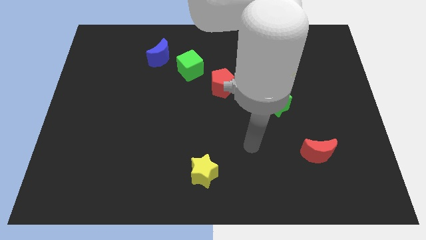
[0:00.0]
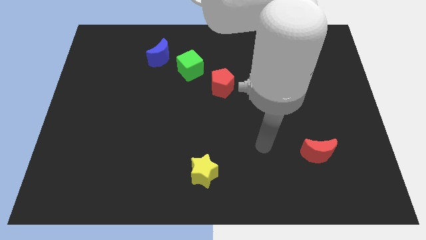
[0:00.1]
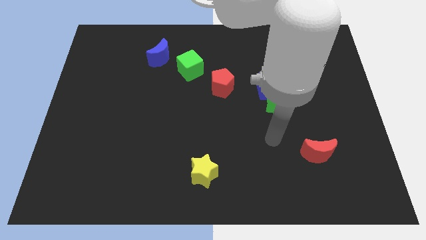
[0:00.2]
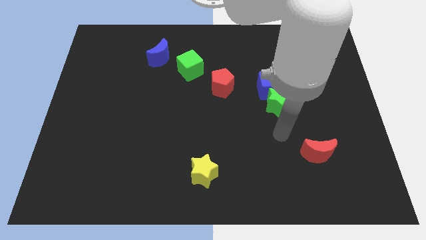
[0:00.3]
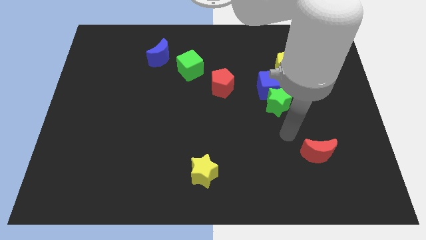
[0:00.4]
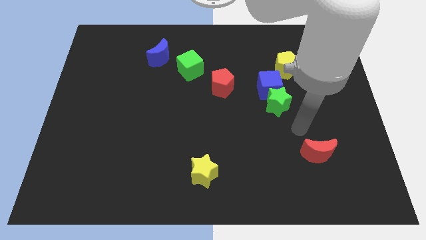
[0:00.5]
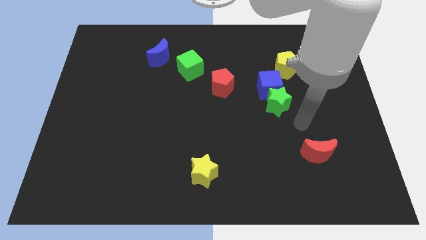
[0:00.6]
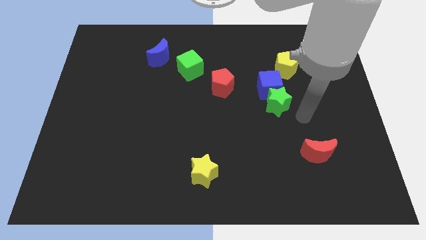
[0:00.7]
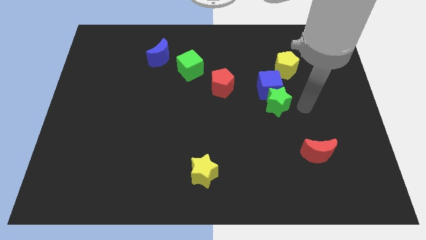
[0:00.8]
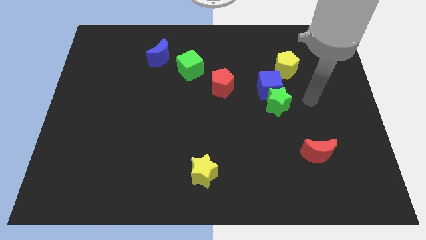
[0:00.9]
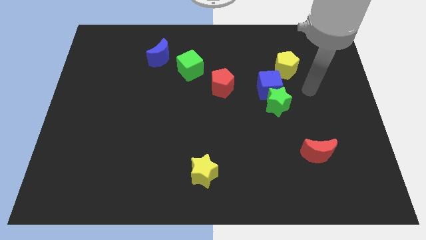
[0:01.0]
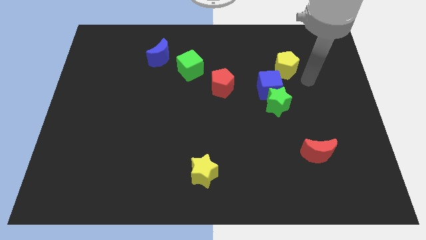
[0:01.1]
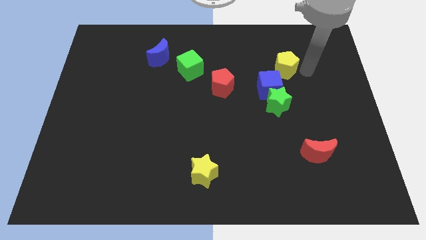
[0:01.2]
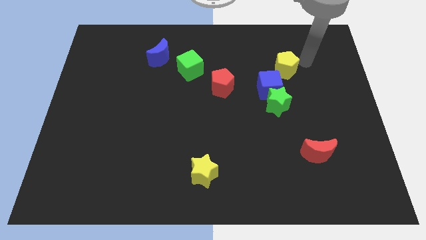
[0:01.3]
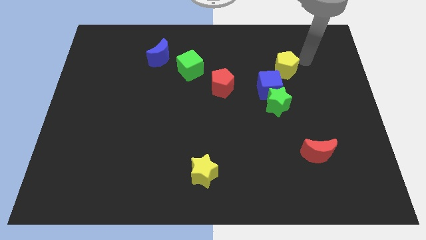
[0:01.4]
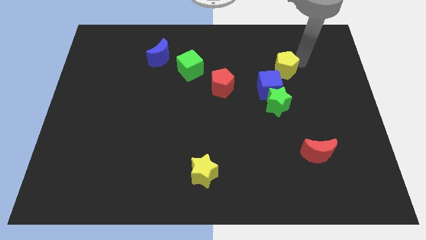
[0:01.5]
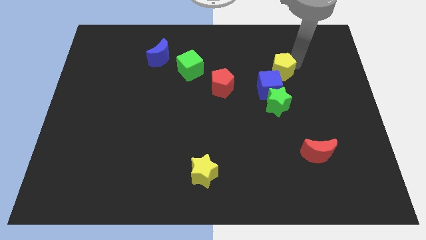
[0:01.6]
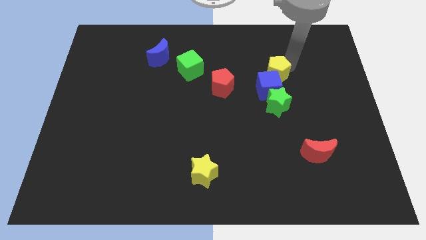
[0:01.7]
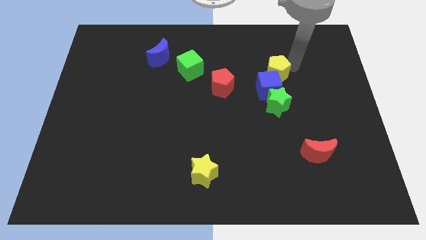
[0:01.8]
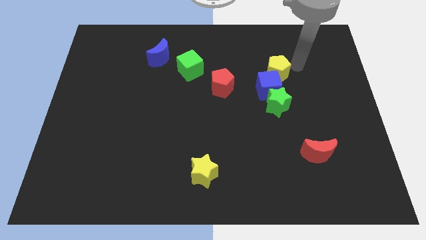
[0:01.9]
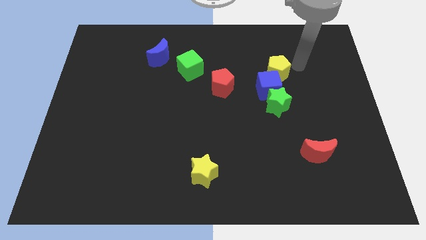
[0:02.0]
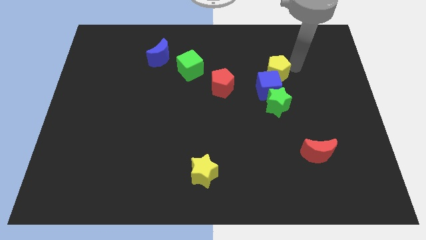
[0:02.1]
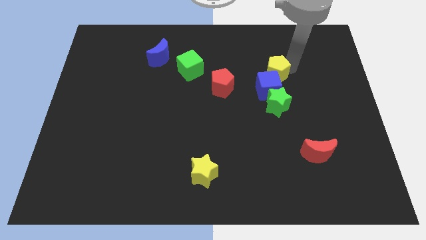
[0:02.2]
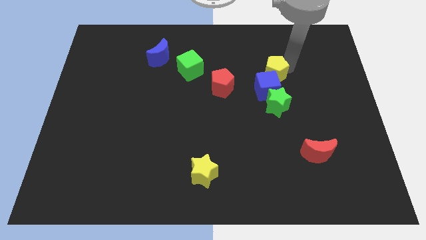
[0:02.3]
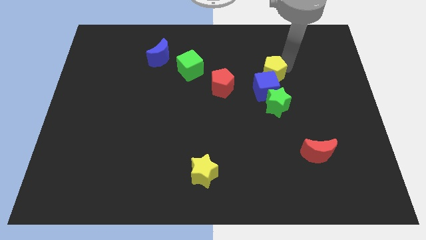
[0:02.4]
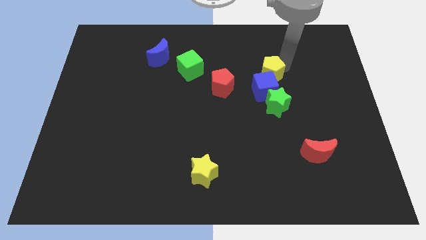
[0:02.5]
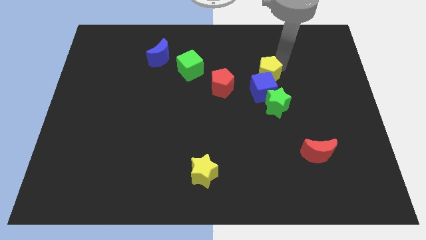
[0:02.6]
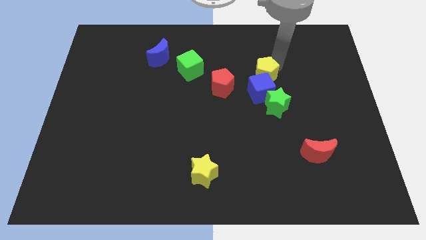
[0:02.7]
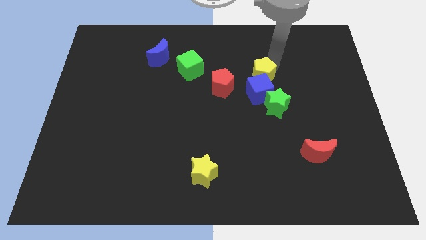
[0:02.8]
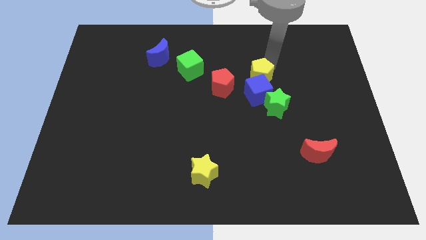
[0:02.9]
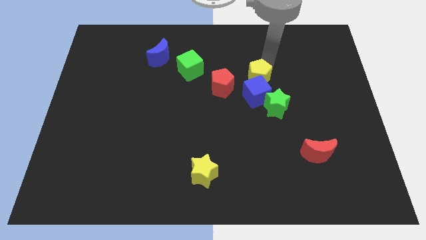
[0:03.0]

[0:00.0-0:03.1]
slightly push the yellow pentagon down and to the left diagonally

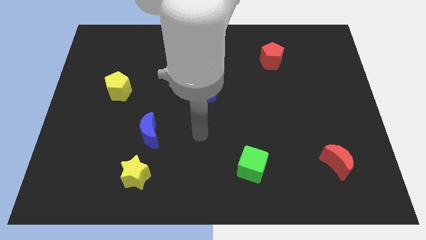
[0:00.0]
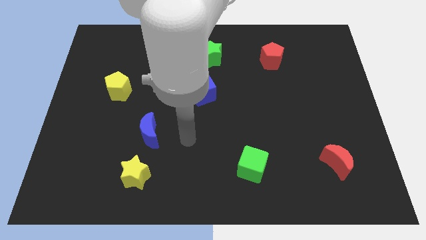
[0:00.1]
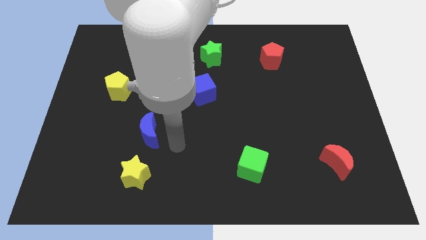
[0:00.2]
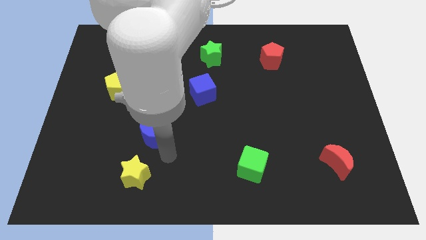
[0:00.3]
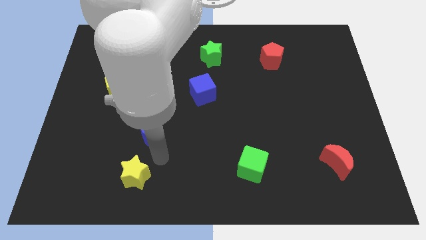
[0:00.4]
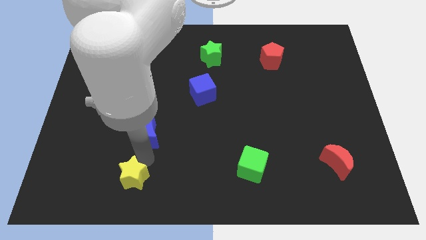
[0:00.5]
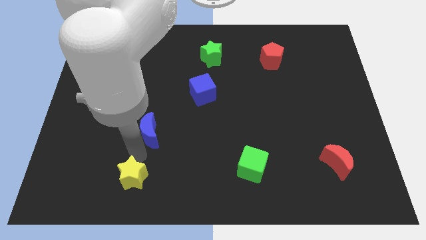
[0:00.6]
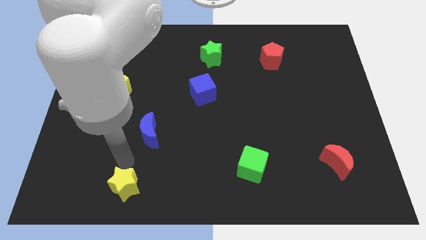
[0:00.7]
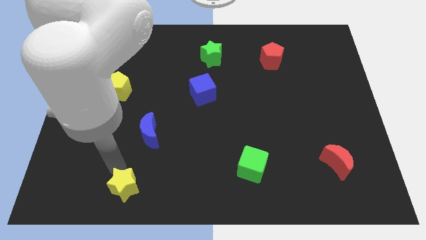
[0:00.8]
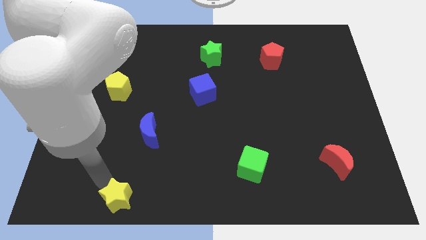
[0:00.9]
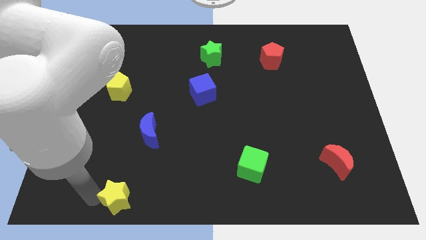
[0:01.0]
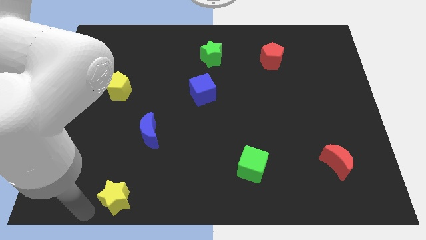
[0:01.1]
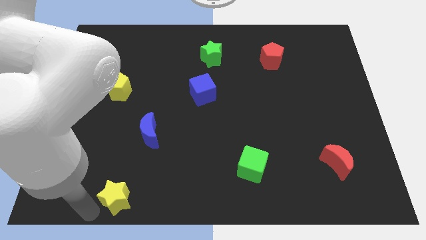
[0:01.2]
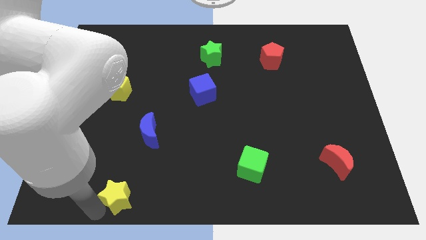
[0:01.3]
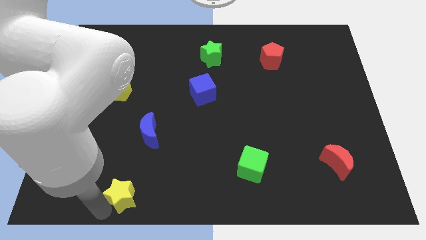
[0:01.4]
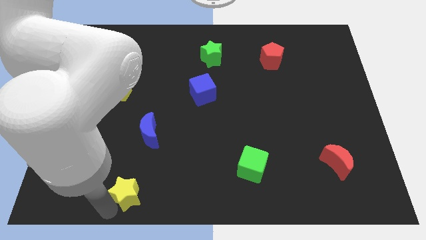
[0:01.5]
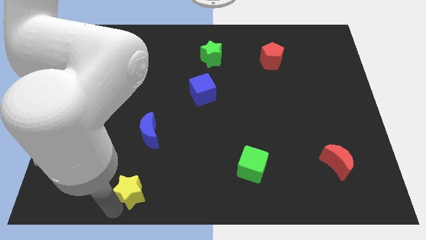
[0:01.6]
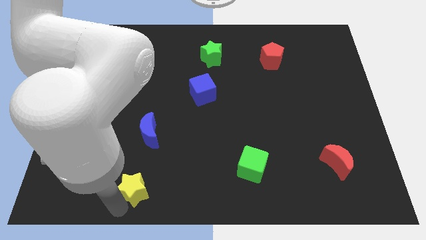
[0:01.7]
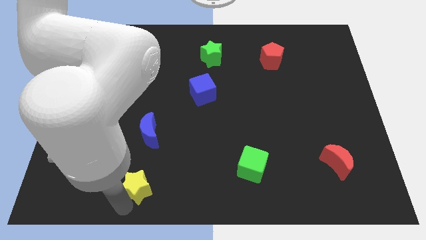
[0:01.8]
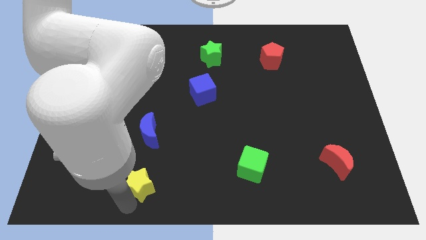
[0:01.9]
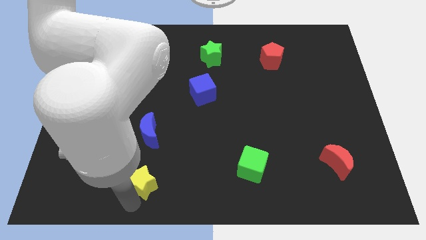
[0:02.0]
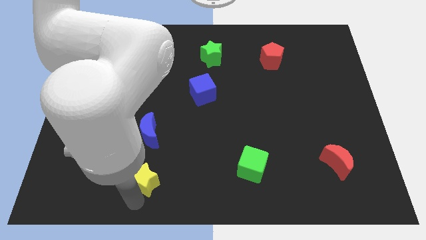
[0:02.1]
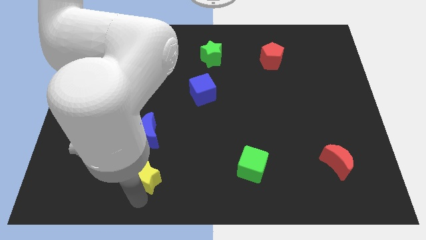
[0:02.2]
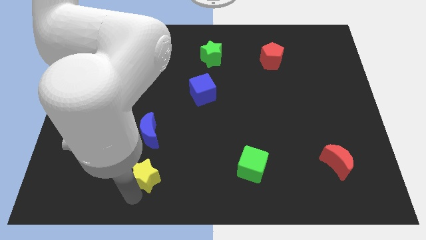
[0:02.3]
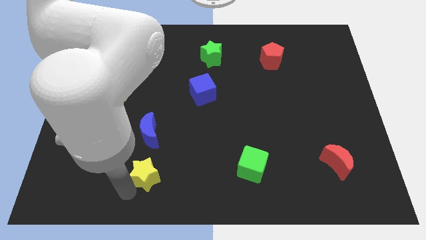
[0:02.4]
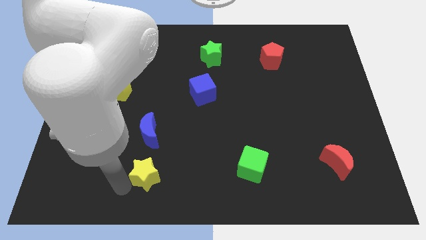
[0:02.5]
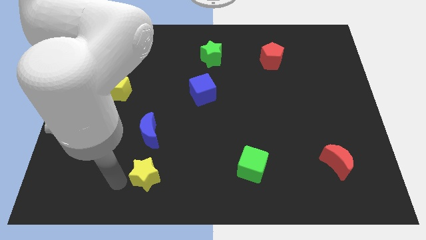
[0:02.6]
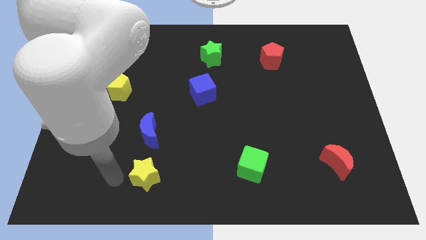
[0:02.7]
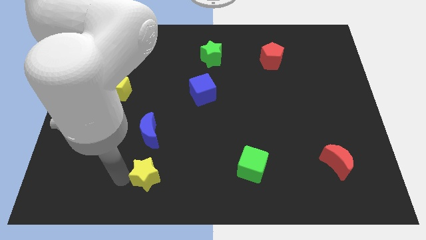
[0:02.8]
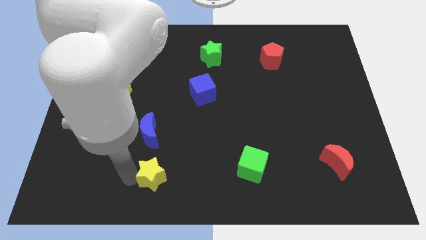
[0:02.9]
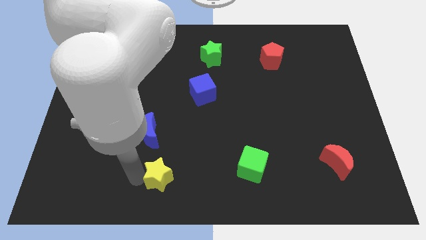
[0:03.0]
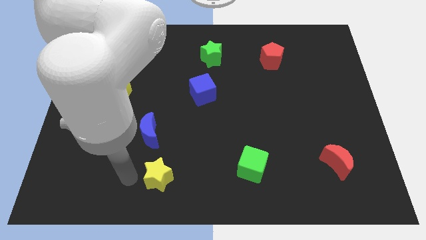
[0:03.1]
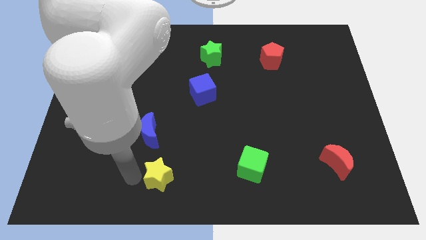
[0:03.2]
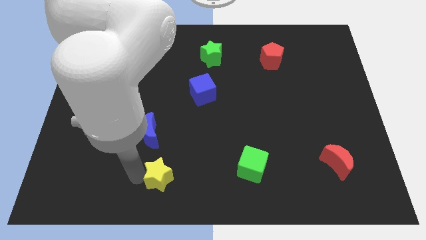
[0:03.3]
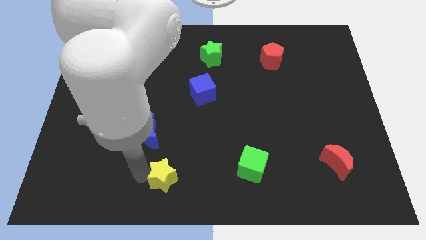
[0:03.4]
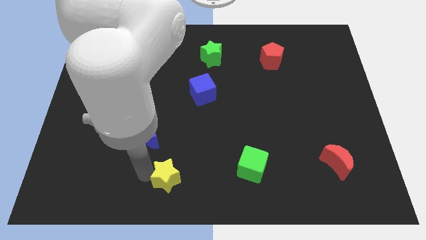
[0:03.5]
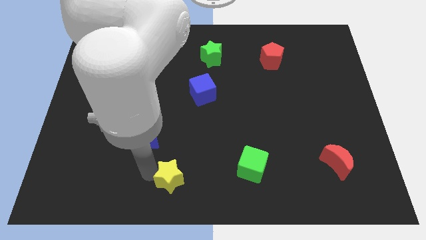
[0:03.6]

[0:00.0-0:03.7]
slightly push the yellow star to the right

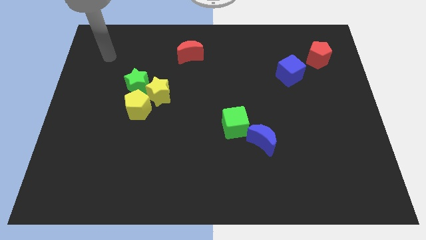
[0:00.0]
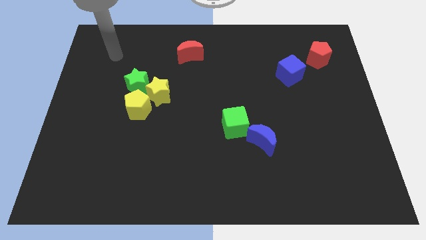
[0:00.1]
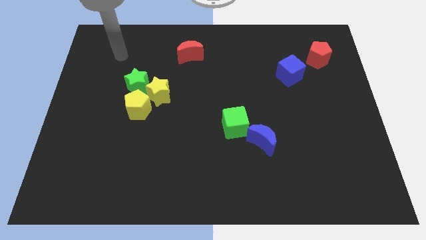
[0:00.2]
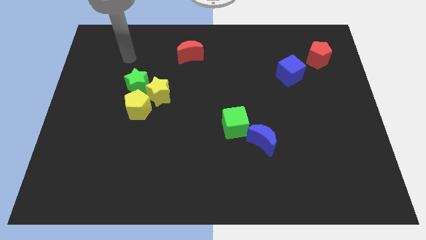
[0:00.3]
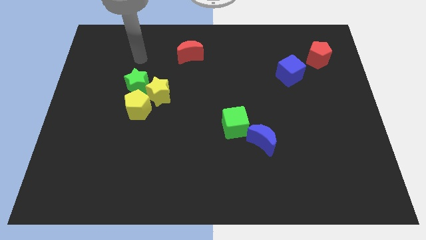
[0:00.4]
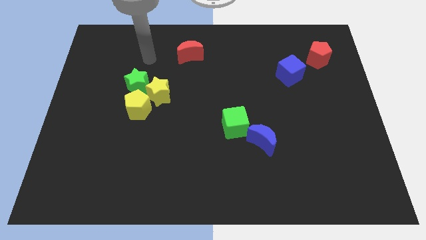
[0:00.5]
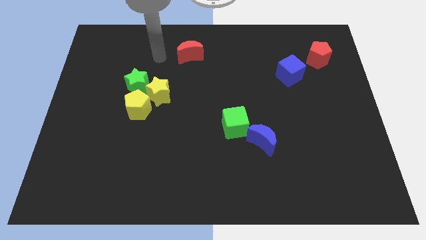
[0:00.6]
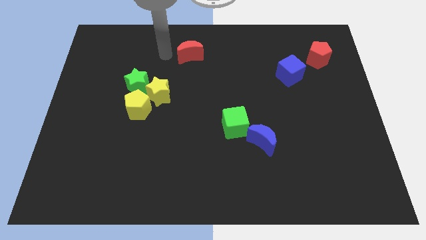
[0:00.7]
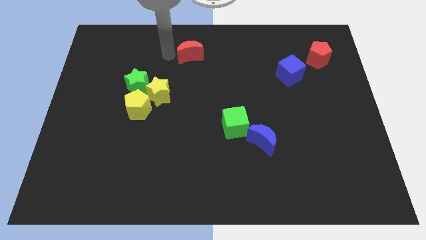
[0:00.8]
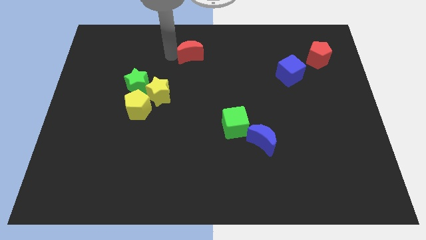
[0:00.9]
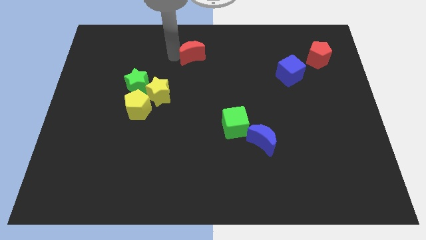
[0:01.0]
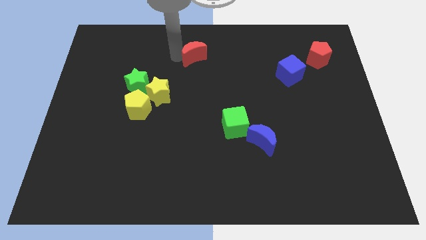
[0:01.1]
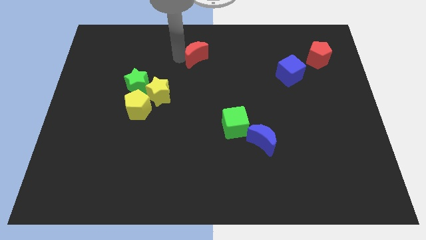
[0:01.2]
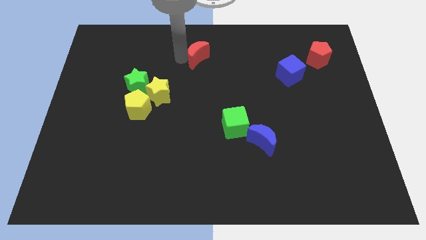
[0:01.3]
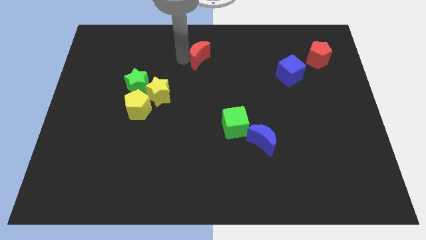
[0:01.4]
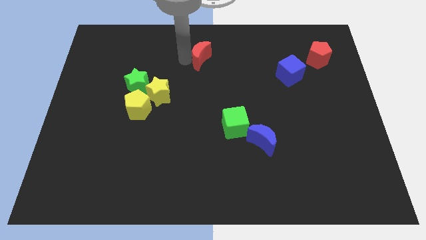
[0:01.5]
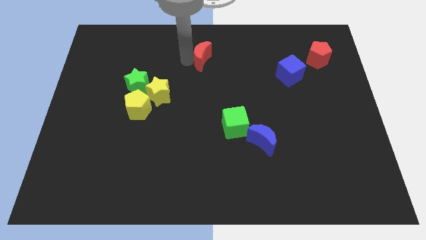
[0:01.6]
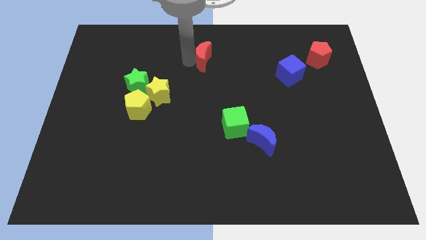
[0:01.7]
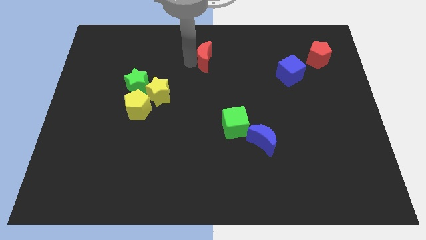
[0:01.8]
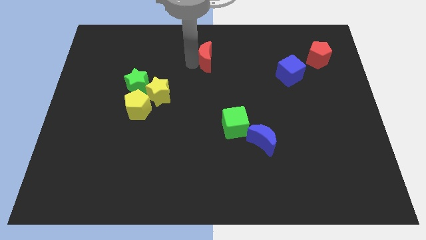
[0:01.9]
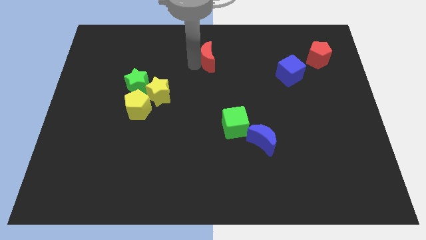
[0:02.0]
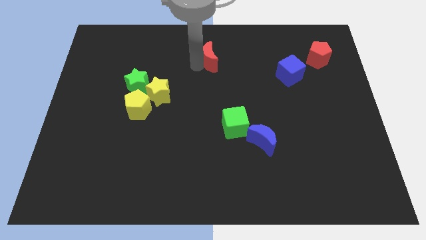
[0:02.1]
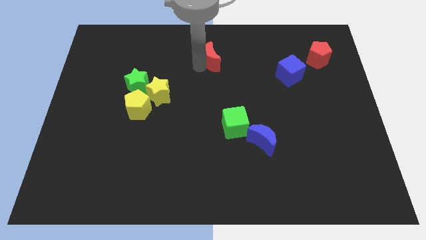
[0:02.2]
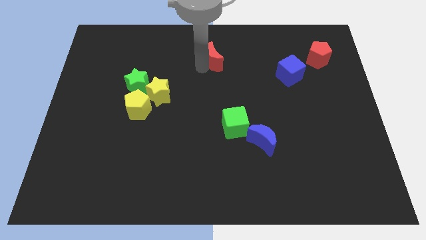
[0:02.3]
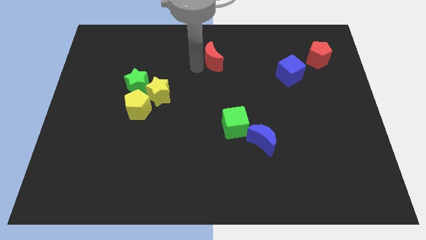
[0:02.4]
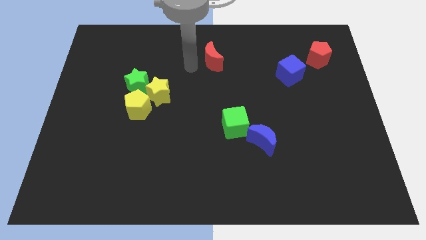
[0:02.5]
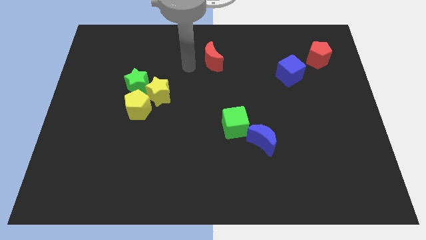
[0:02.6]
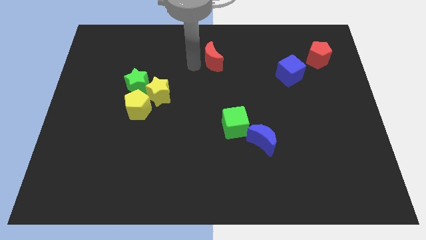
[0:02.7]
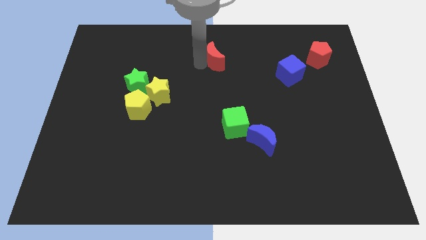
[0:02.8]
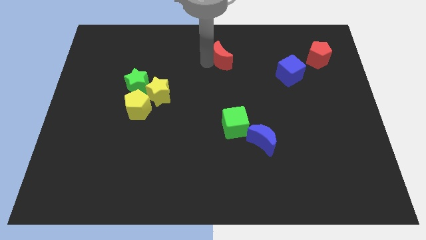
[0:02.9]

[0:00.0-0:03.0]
slide the red moon somewhat to the right
